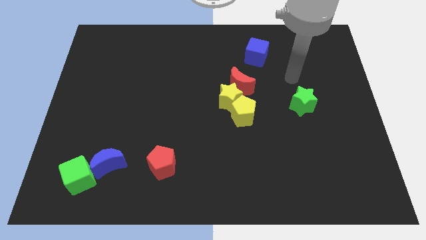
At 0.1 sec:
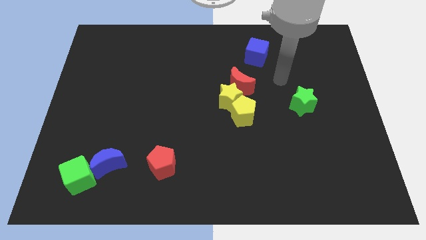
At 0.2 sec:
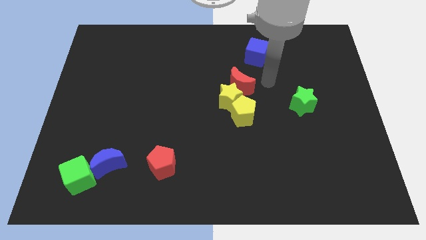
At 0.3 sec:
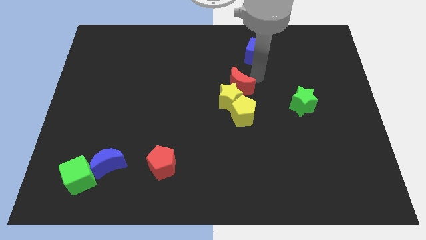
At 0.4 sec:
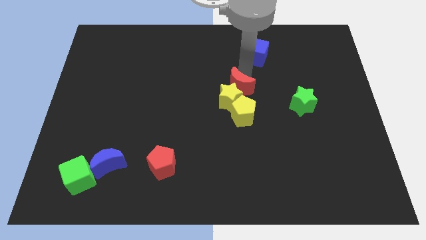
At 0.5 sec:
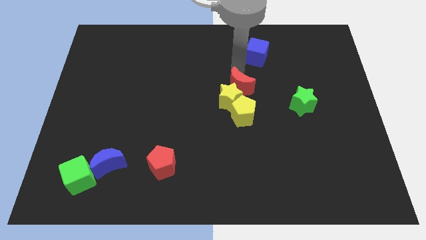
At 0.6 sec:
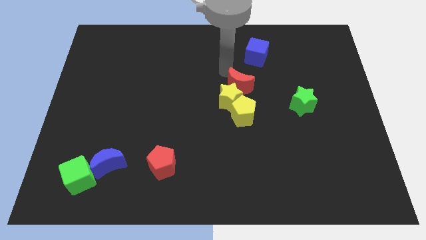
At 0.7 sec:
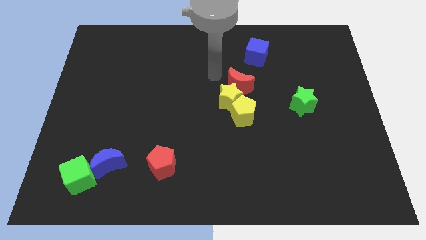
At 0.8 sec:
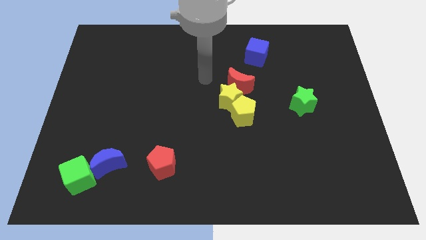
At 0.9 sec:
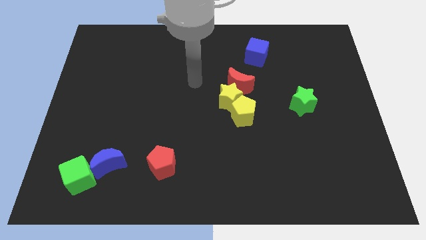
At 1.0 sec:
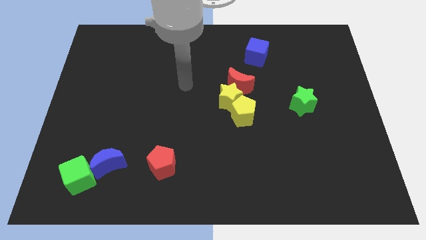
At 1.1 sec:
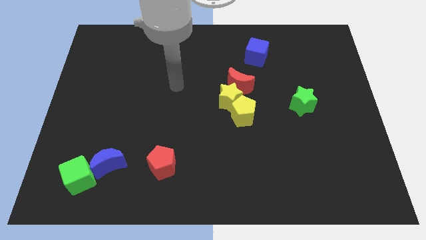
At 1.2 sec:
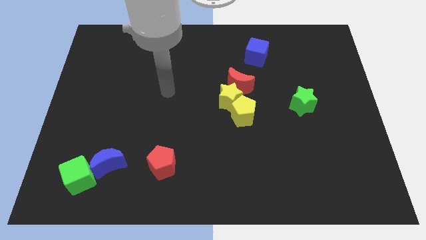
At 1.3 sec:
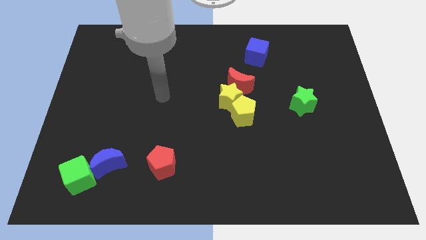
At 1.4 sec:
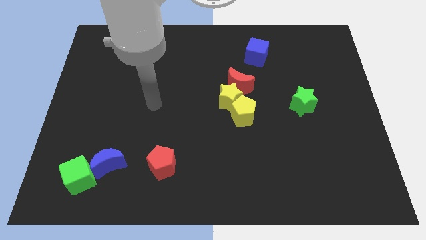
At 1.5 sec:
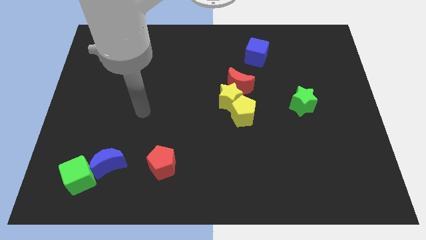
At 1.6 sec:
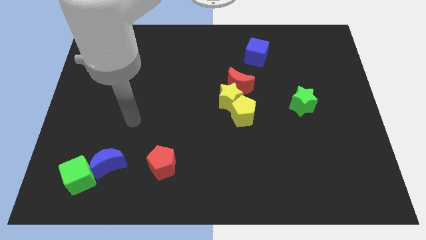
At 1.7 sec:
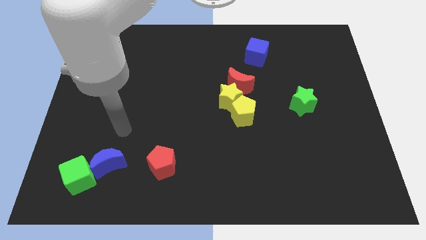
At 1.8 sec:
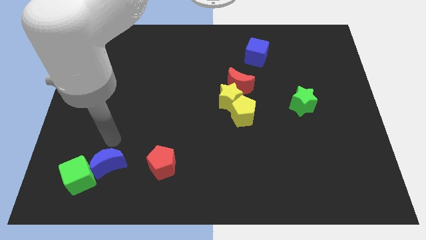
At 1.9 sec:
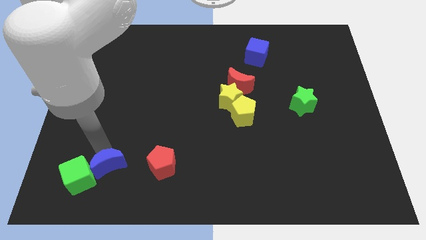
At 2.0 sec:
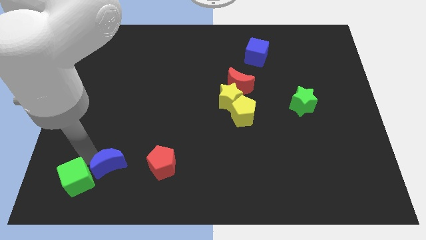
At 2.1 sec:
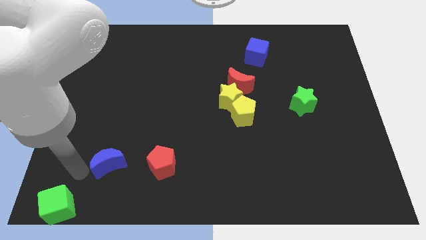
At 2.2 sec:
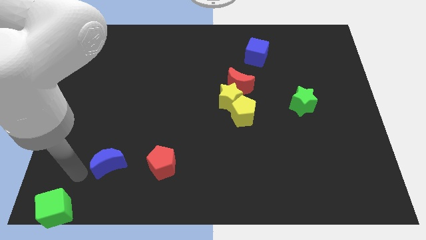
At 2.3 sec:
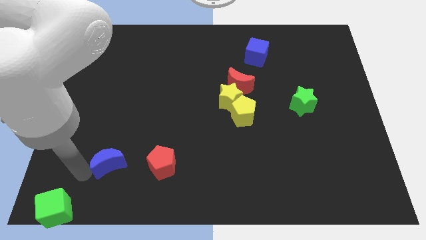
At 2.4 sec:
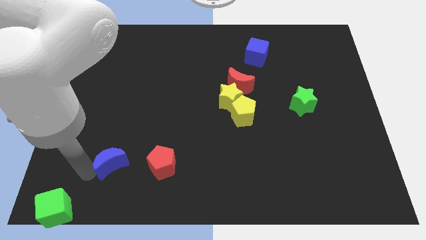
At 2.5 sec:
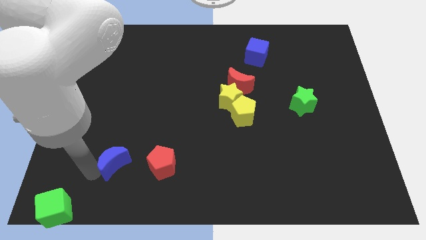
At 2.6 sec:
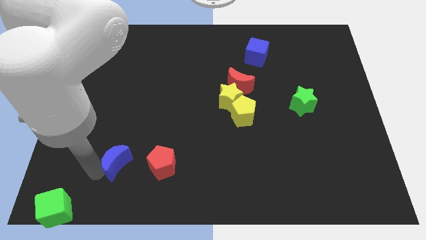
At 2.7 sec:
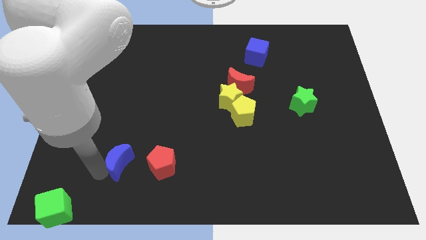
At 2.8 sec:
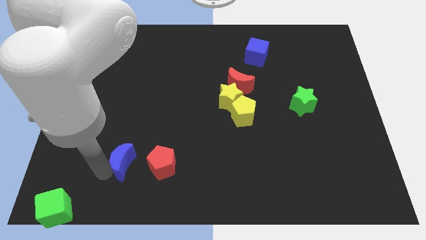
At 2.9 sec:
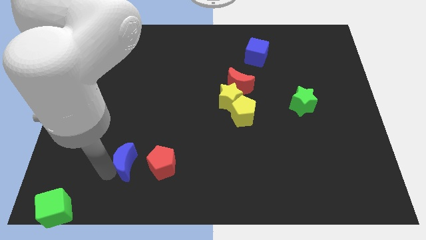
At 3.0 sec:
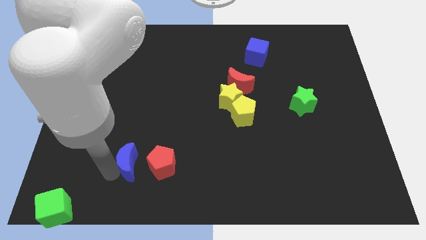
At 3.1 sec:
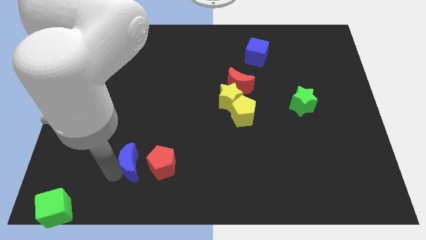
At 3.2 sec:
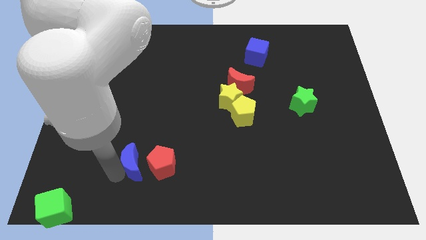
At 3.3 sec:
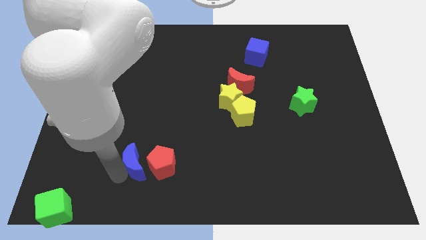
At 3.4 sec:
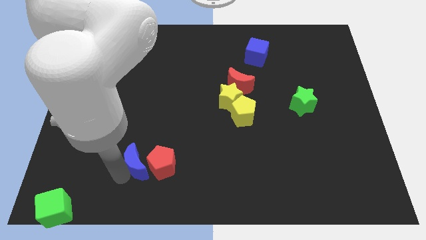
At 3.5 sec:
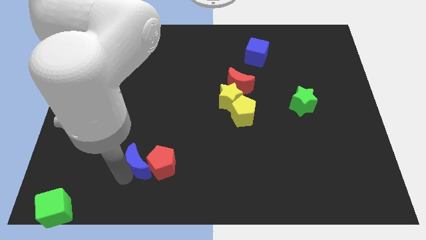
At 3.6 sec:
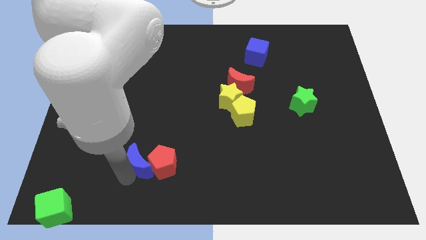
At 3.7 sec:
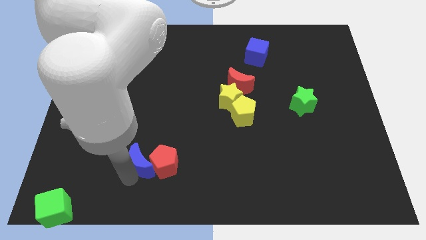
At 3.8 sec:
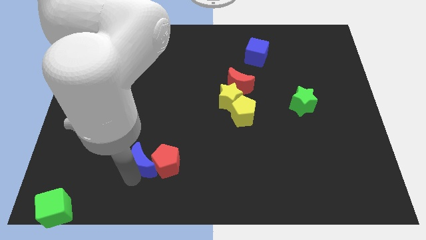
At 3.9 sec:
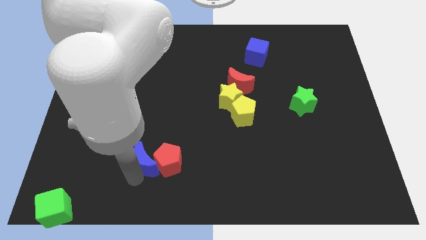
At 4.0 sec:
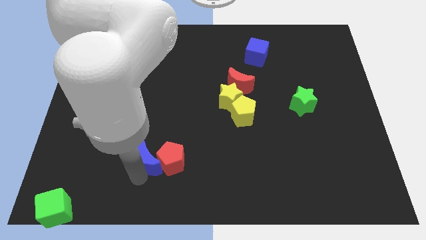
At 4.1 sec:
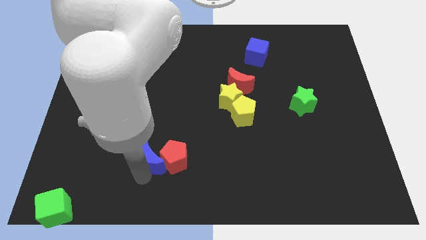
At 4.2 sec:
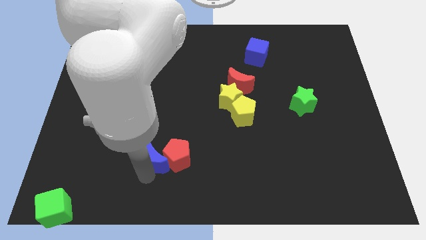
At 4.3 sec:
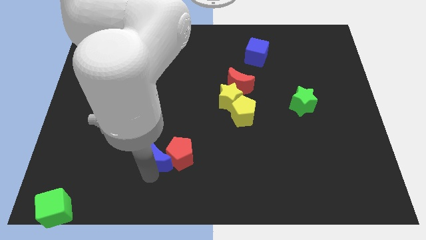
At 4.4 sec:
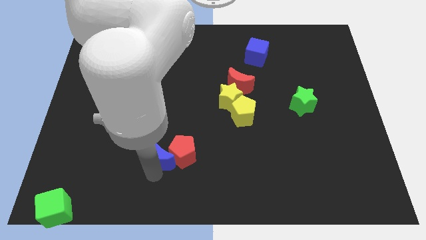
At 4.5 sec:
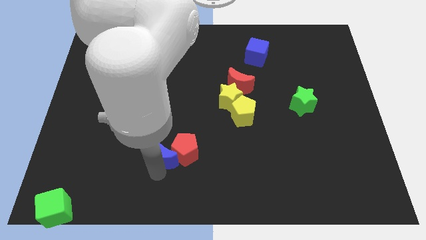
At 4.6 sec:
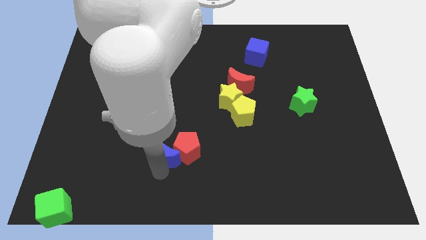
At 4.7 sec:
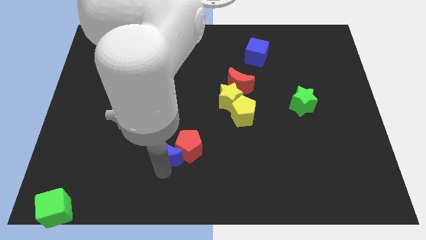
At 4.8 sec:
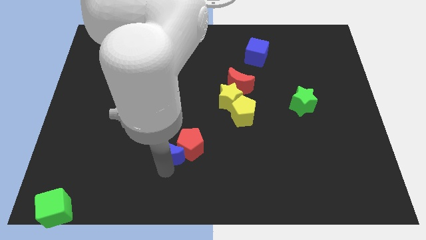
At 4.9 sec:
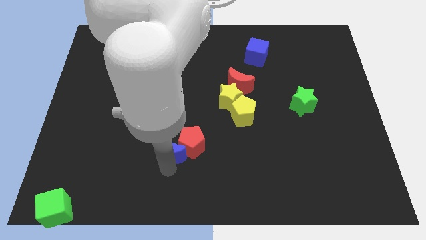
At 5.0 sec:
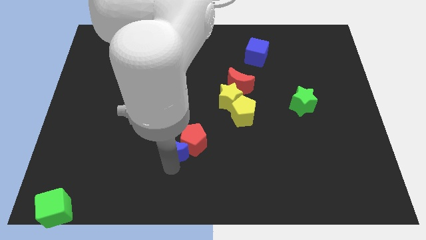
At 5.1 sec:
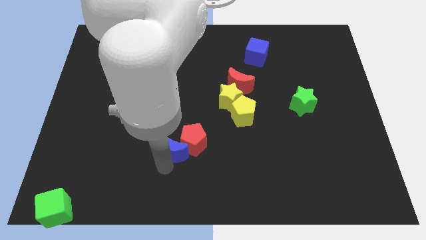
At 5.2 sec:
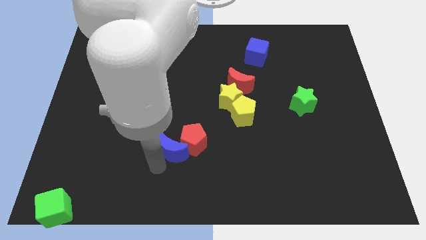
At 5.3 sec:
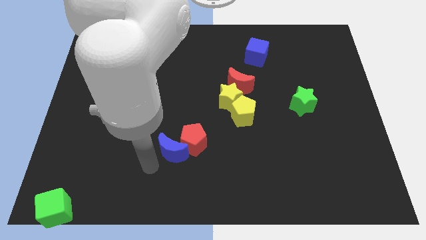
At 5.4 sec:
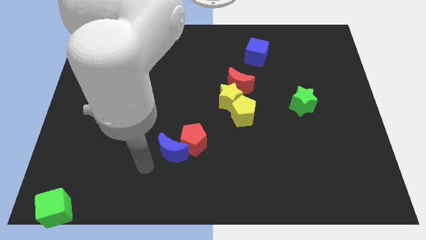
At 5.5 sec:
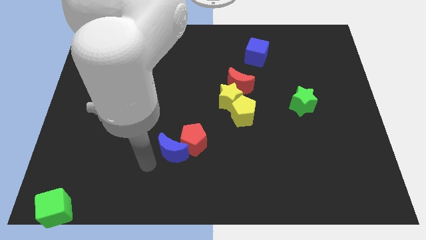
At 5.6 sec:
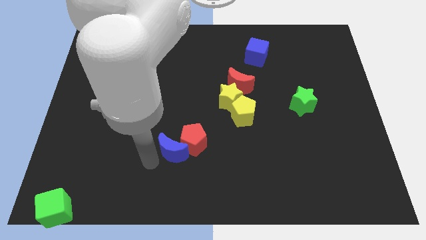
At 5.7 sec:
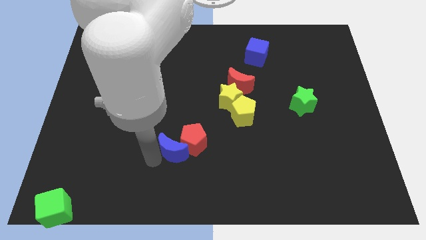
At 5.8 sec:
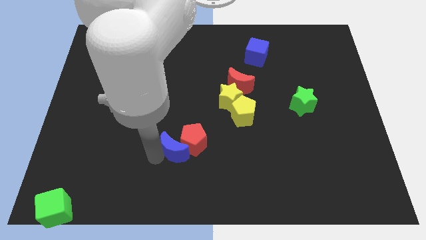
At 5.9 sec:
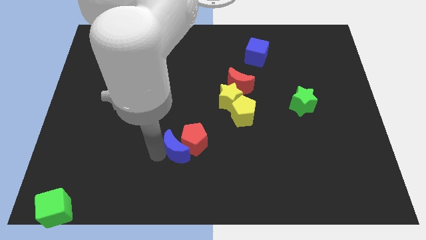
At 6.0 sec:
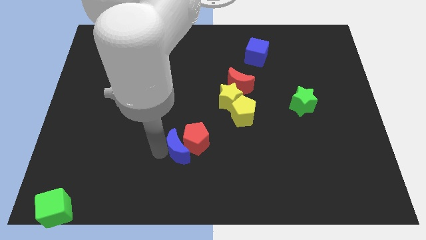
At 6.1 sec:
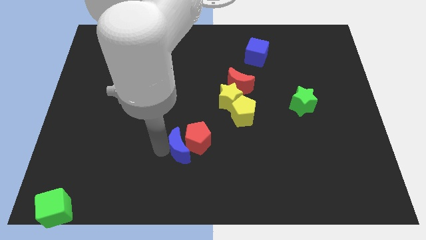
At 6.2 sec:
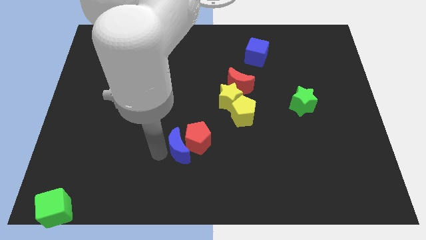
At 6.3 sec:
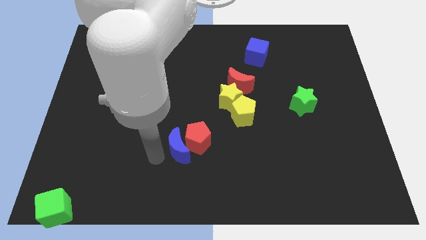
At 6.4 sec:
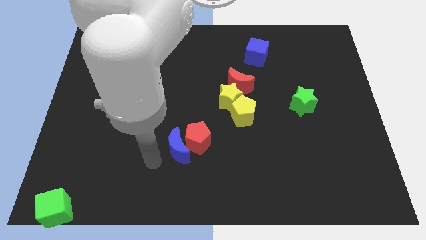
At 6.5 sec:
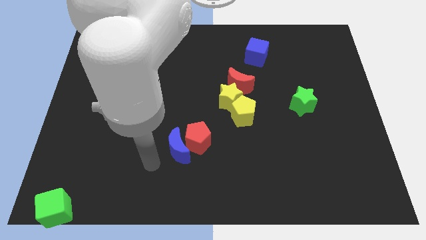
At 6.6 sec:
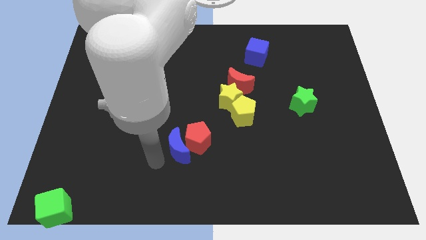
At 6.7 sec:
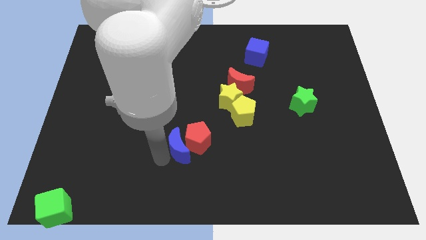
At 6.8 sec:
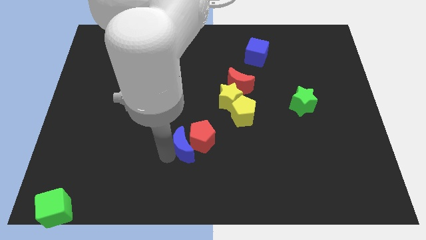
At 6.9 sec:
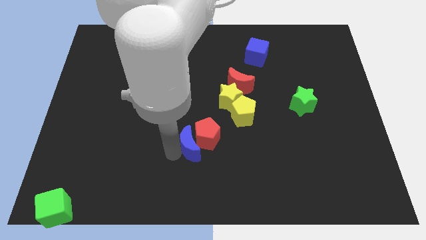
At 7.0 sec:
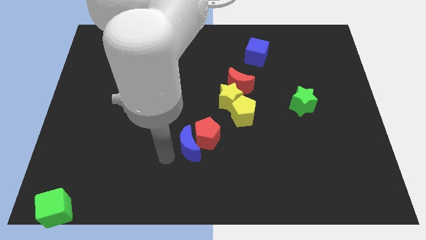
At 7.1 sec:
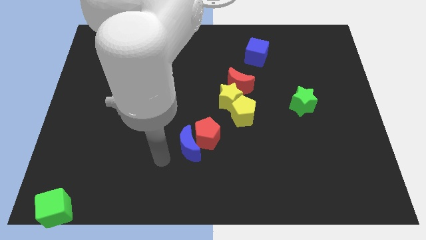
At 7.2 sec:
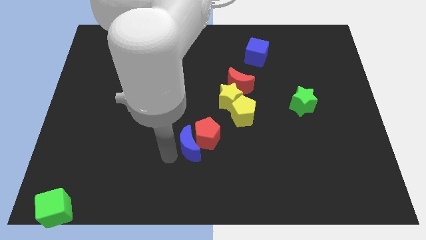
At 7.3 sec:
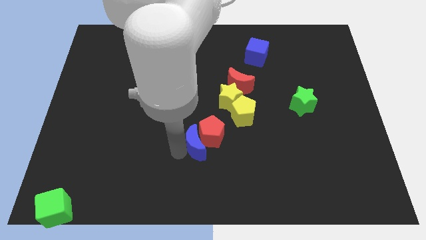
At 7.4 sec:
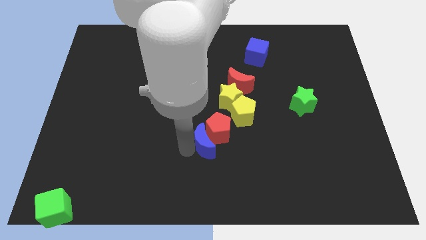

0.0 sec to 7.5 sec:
move the blue moon to the bottom left of the yellow pentagon
